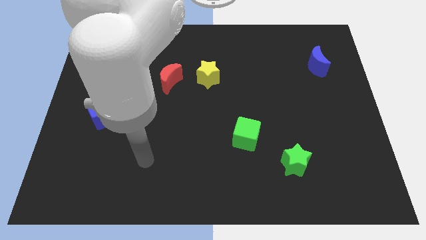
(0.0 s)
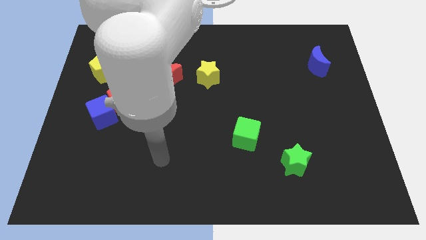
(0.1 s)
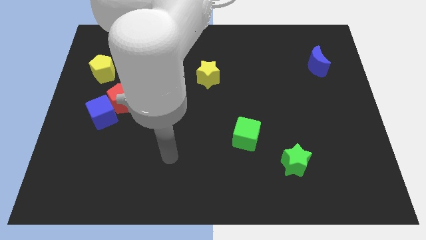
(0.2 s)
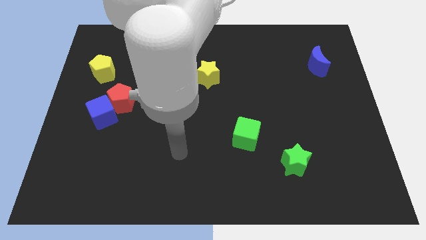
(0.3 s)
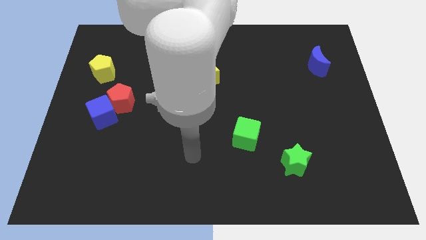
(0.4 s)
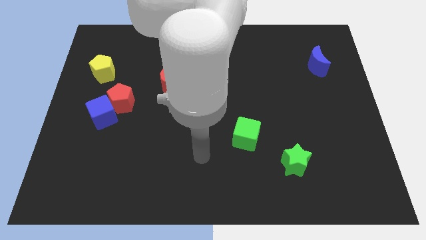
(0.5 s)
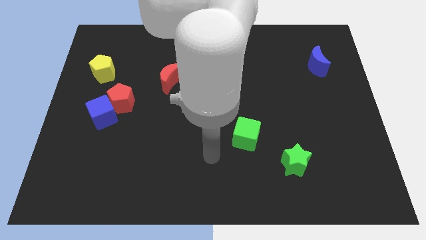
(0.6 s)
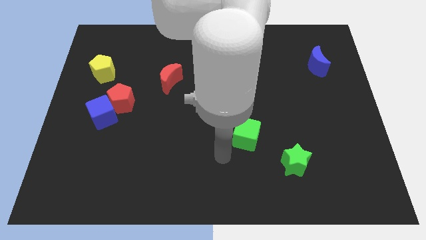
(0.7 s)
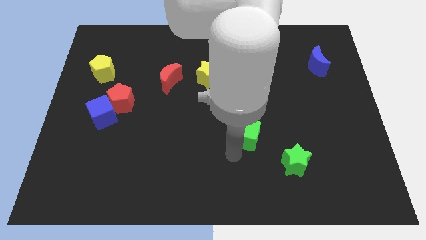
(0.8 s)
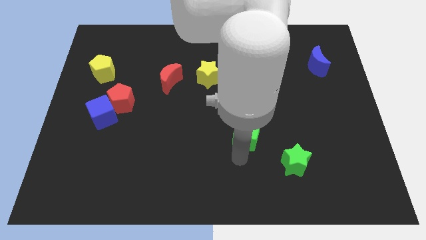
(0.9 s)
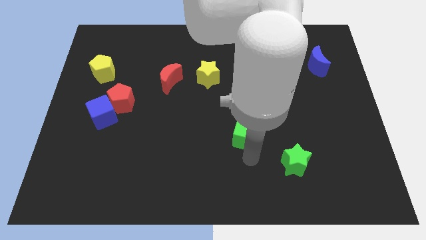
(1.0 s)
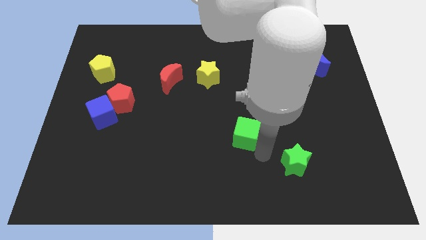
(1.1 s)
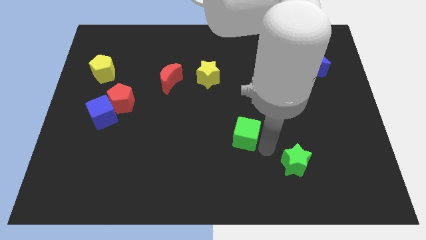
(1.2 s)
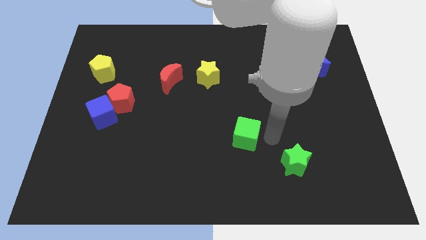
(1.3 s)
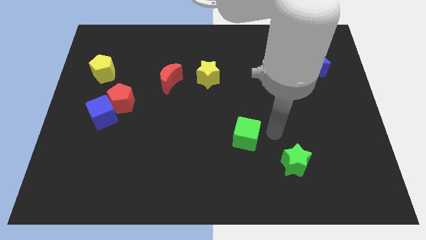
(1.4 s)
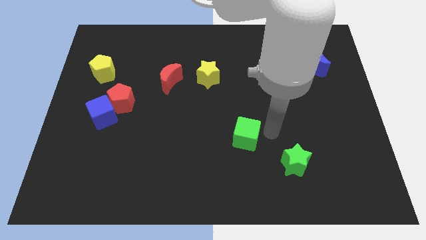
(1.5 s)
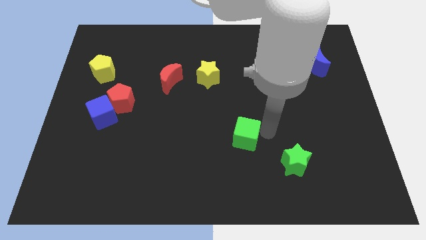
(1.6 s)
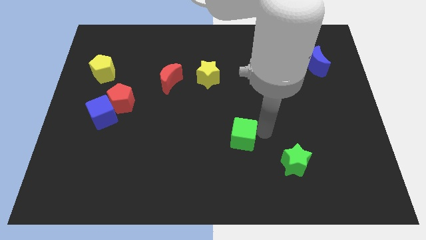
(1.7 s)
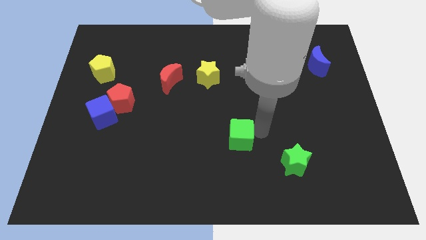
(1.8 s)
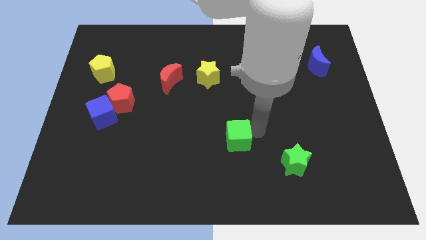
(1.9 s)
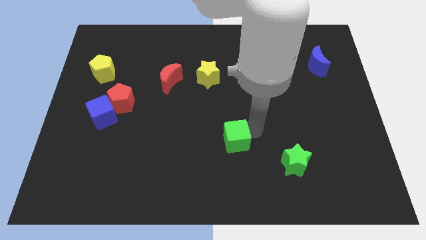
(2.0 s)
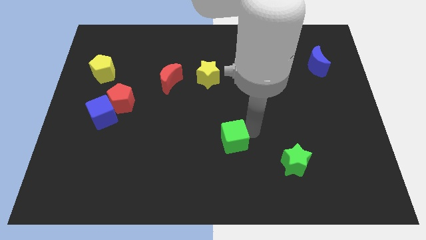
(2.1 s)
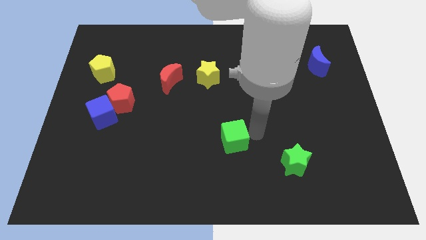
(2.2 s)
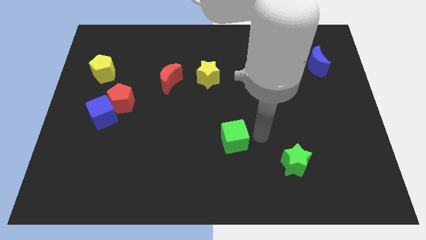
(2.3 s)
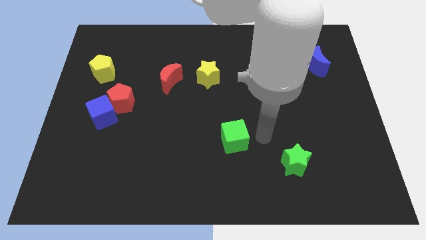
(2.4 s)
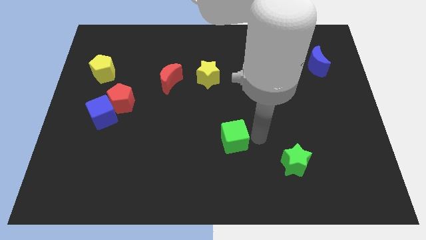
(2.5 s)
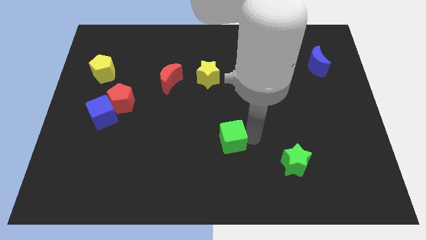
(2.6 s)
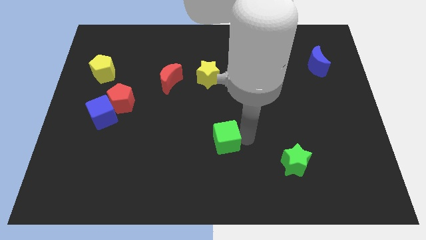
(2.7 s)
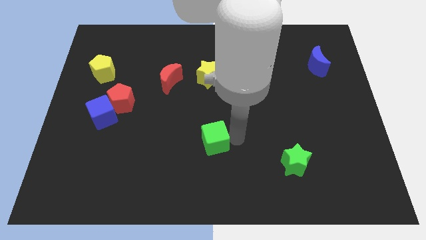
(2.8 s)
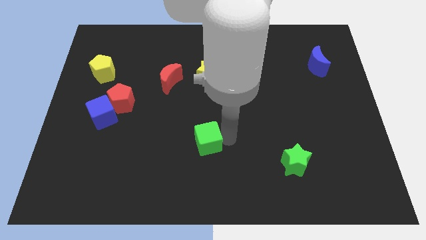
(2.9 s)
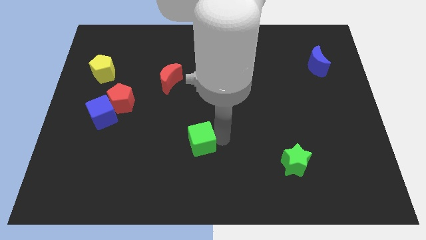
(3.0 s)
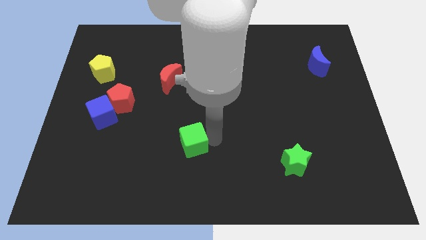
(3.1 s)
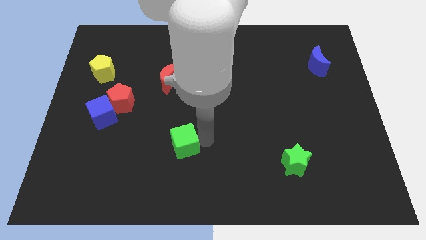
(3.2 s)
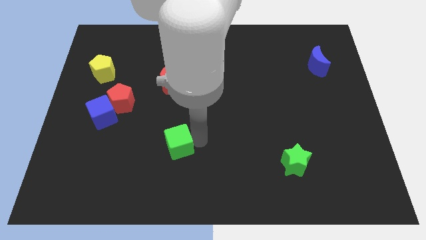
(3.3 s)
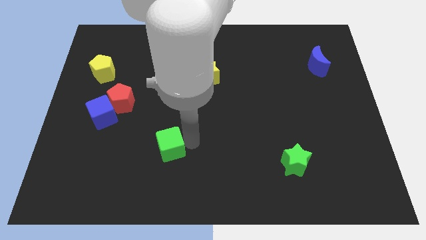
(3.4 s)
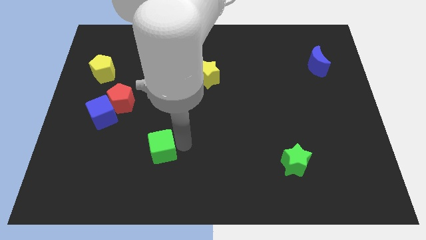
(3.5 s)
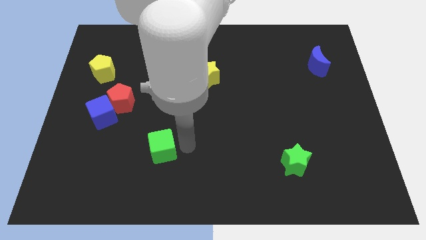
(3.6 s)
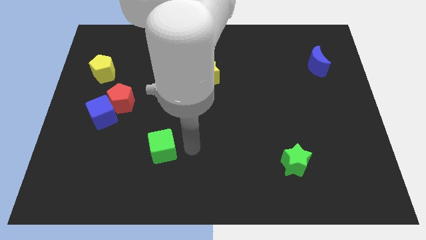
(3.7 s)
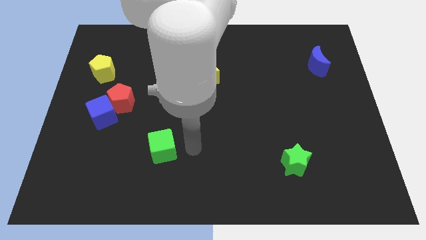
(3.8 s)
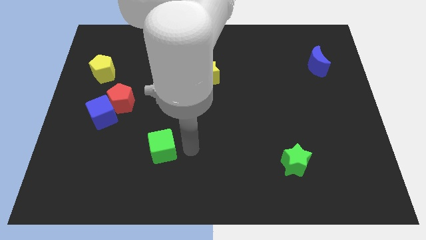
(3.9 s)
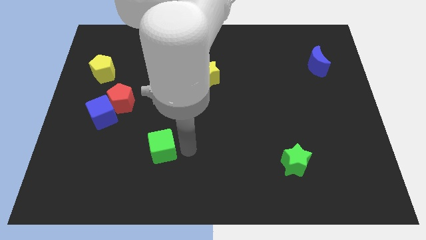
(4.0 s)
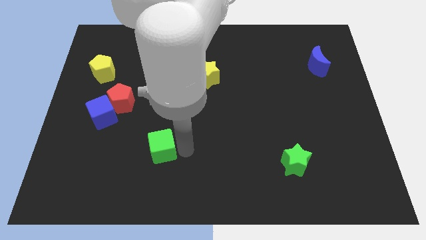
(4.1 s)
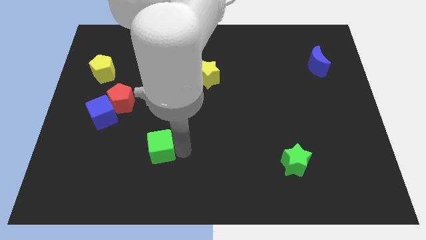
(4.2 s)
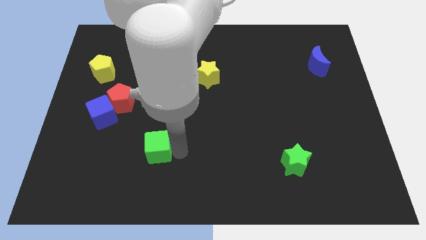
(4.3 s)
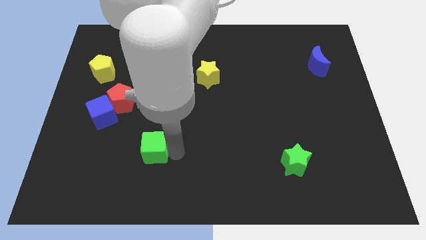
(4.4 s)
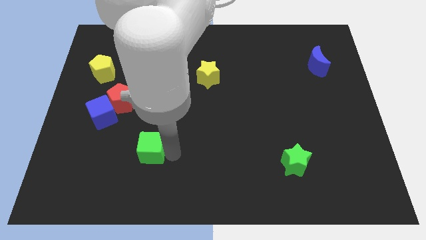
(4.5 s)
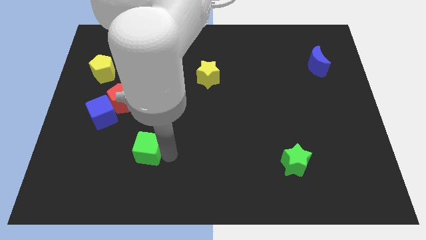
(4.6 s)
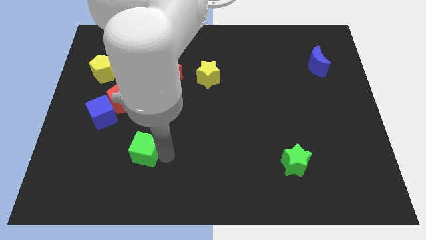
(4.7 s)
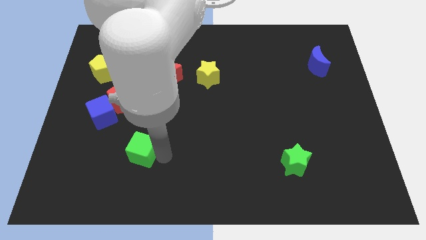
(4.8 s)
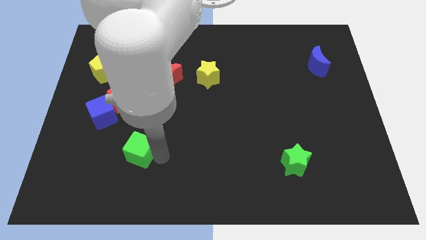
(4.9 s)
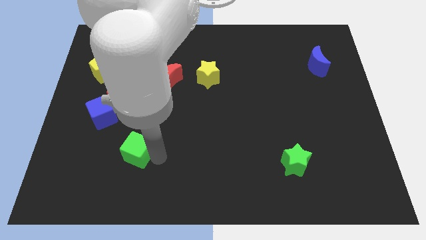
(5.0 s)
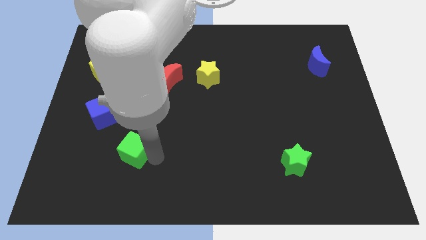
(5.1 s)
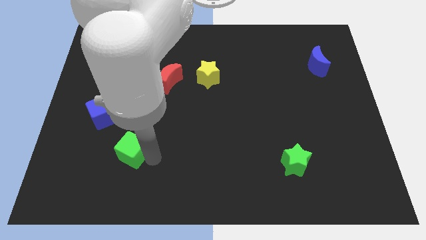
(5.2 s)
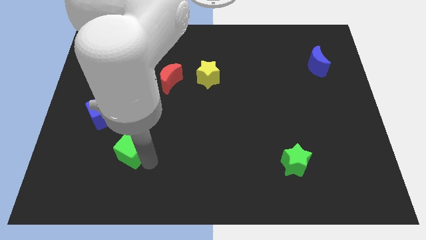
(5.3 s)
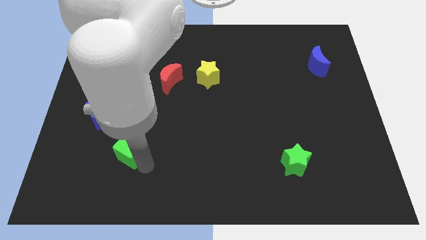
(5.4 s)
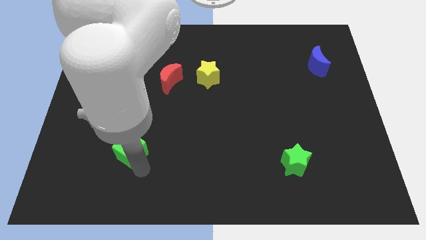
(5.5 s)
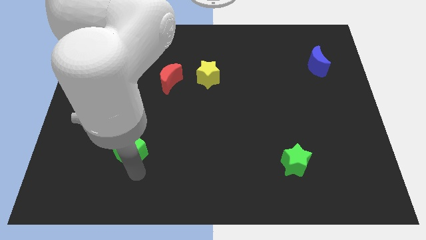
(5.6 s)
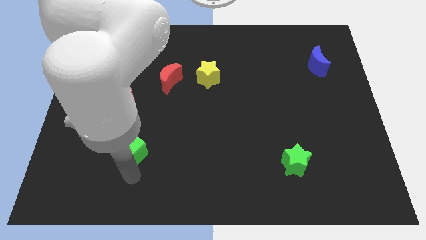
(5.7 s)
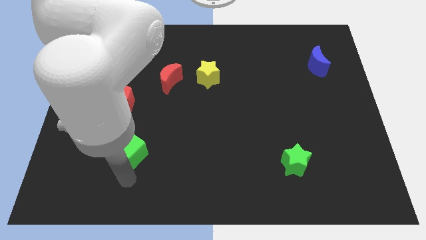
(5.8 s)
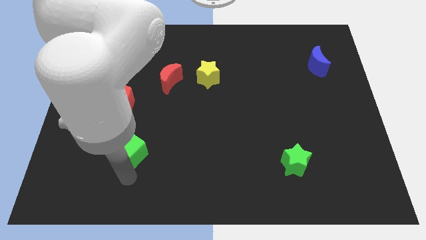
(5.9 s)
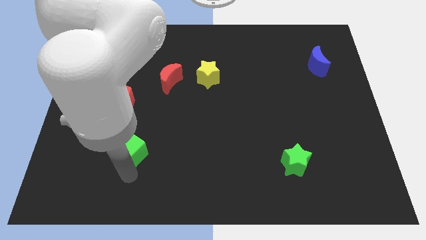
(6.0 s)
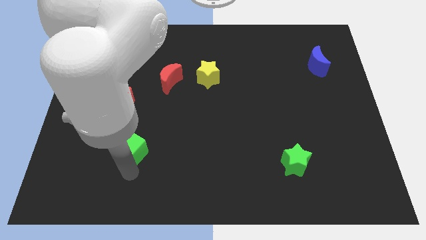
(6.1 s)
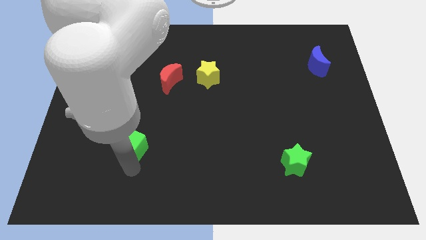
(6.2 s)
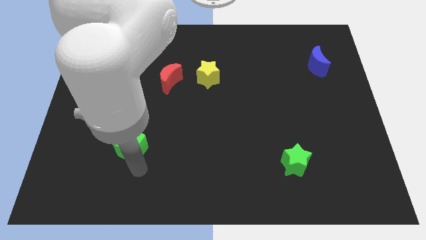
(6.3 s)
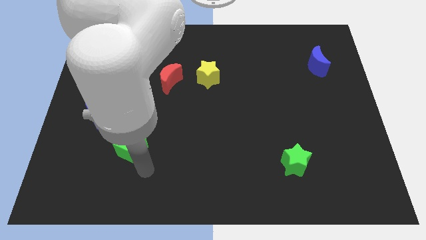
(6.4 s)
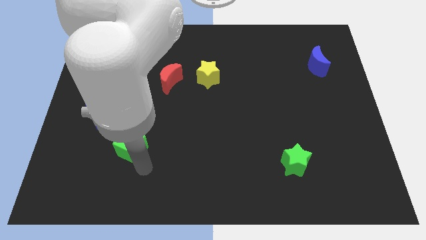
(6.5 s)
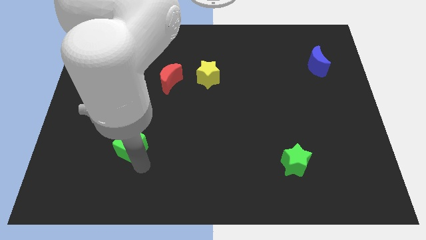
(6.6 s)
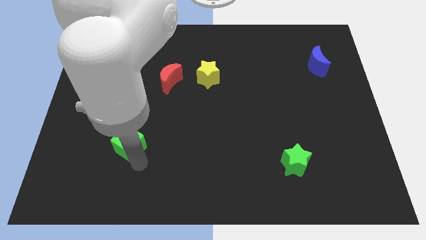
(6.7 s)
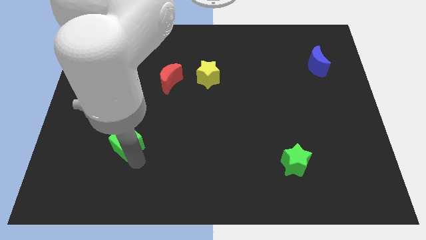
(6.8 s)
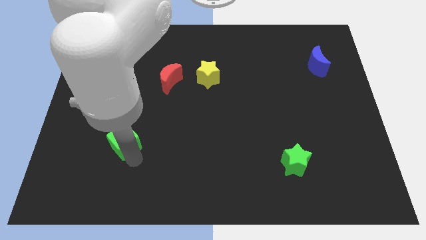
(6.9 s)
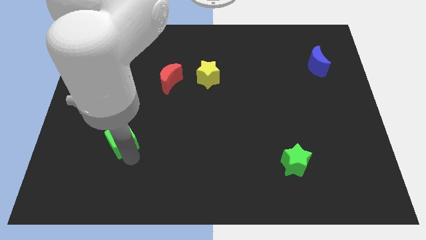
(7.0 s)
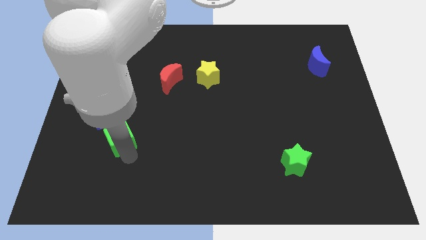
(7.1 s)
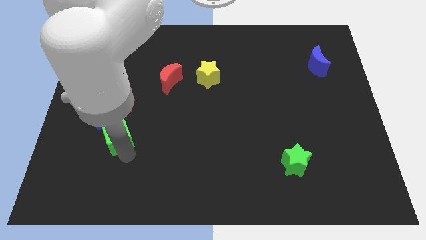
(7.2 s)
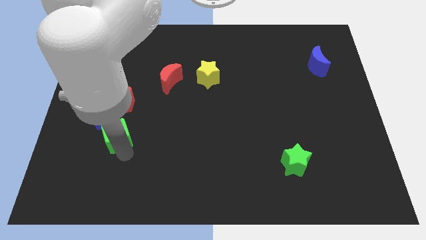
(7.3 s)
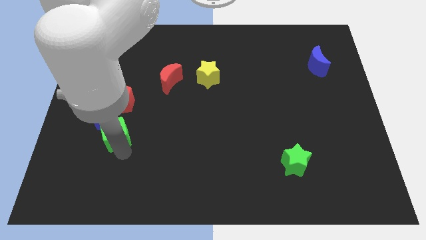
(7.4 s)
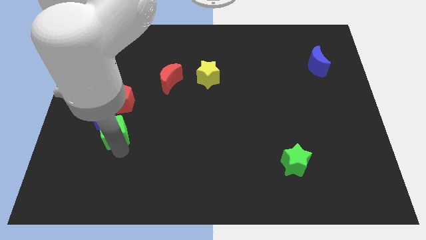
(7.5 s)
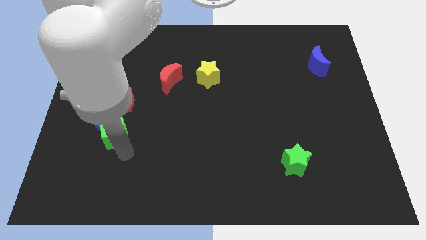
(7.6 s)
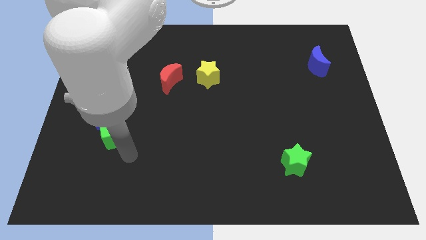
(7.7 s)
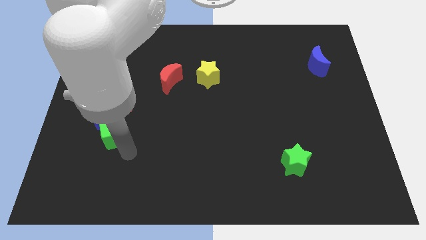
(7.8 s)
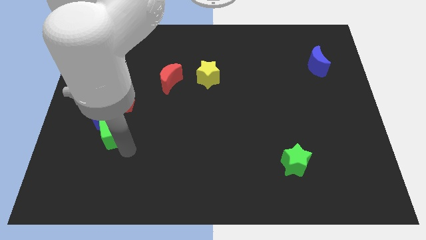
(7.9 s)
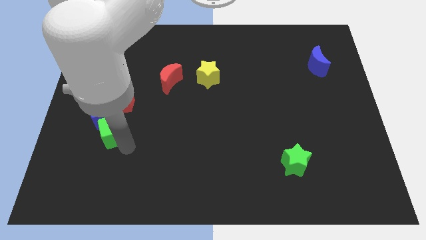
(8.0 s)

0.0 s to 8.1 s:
slide the green cube next to the blue cube
